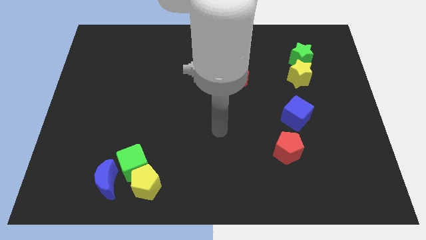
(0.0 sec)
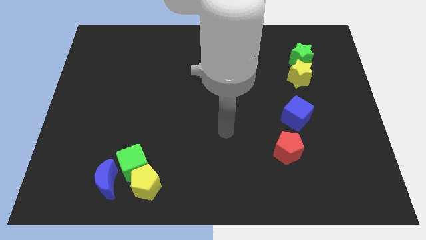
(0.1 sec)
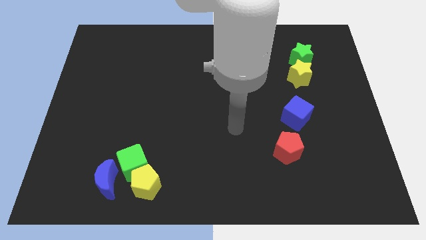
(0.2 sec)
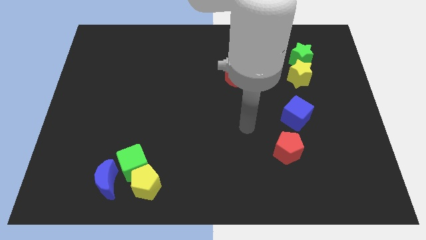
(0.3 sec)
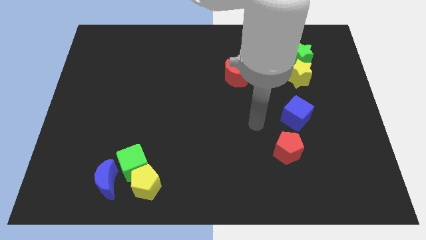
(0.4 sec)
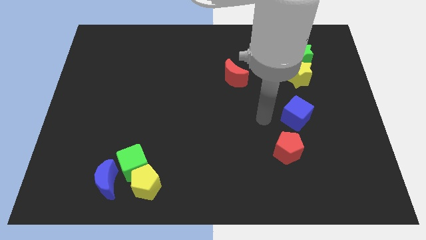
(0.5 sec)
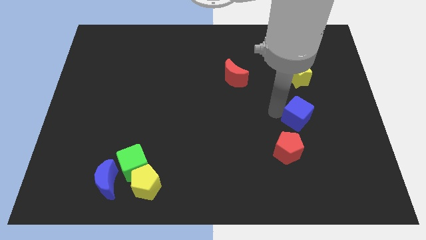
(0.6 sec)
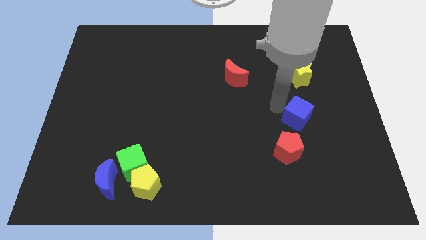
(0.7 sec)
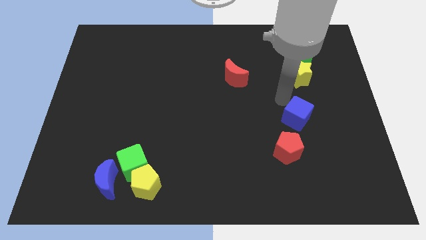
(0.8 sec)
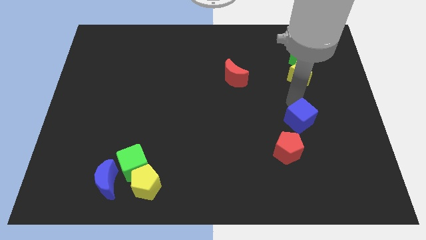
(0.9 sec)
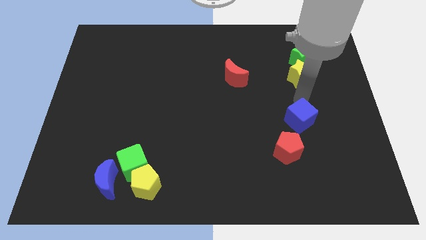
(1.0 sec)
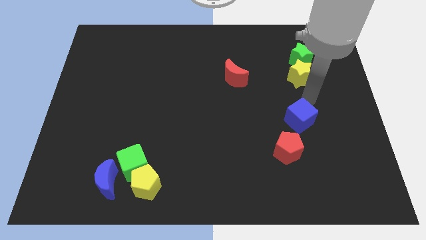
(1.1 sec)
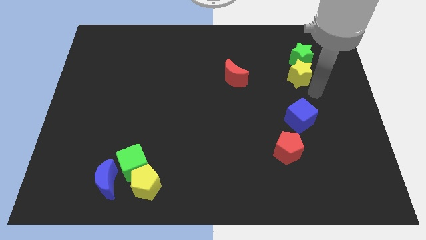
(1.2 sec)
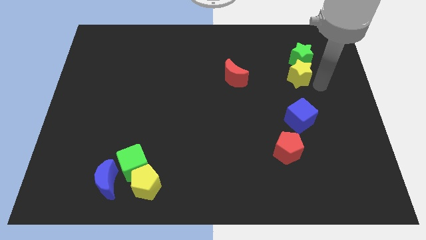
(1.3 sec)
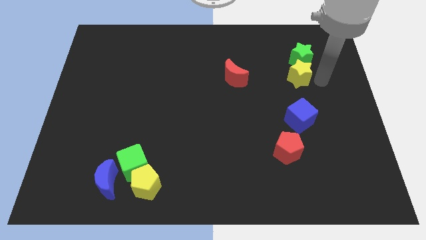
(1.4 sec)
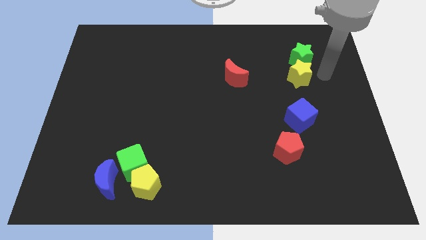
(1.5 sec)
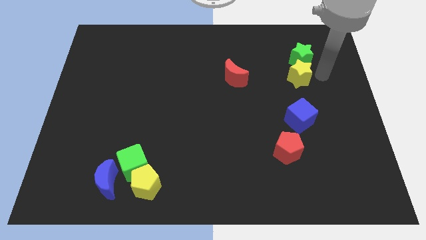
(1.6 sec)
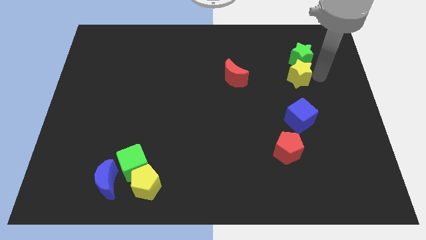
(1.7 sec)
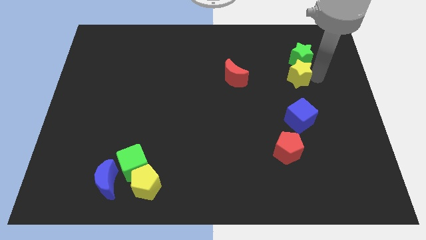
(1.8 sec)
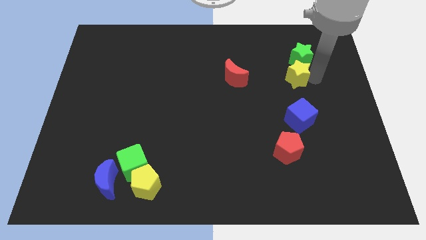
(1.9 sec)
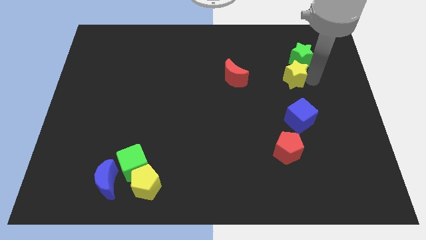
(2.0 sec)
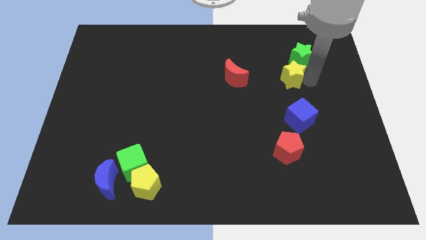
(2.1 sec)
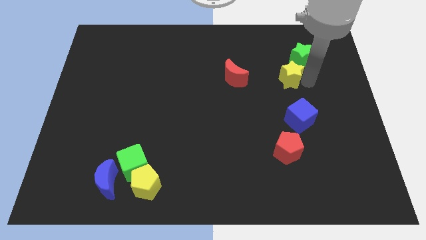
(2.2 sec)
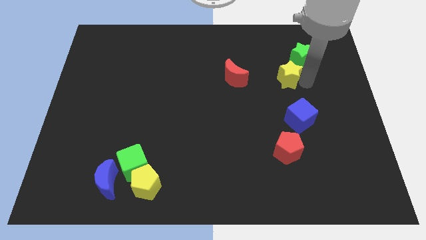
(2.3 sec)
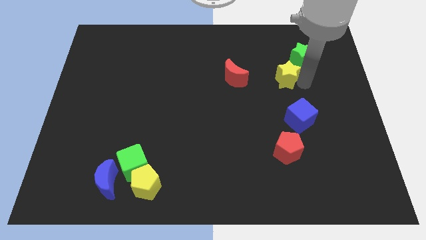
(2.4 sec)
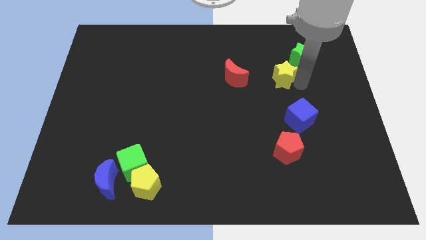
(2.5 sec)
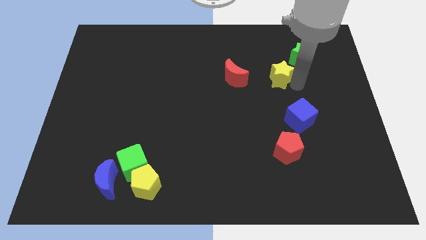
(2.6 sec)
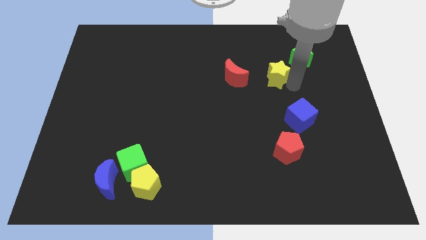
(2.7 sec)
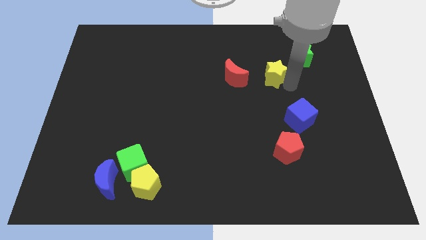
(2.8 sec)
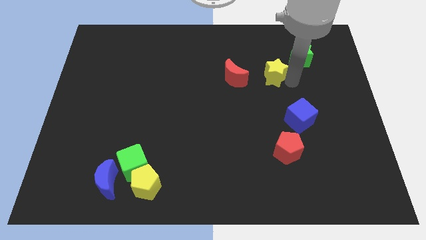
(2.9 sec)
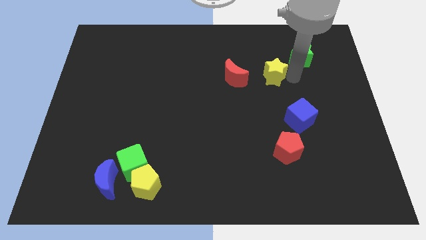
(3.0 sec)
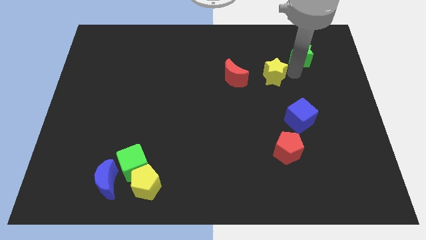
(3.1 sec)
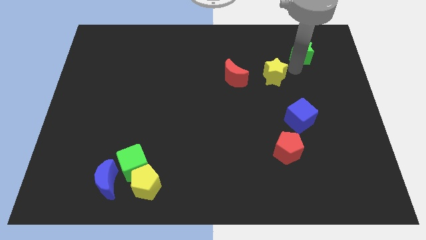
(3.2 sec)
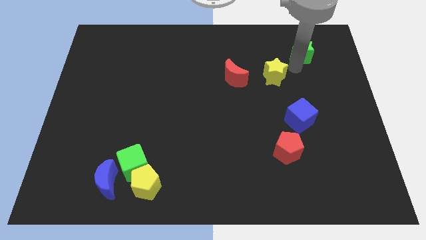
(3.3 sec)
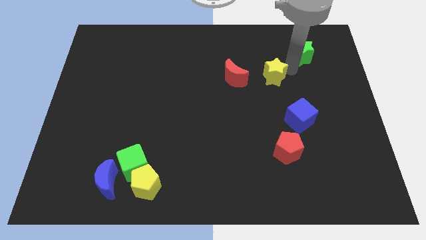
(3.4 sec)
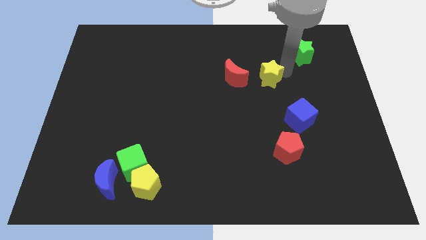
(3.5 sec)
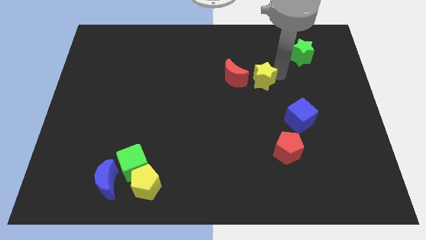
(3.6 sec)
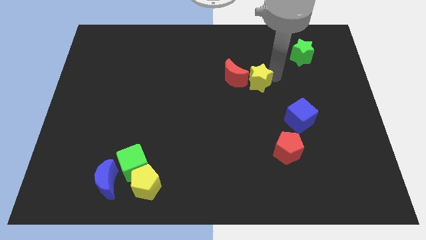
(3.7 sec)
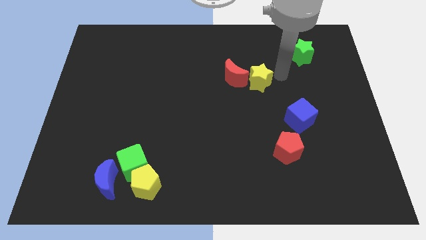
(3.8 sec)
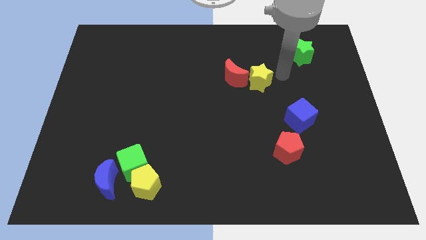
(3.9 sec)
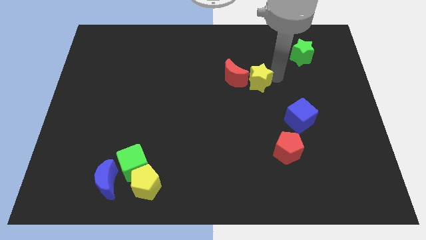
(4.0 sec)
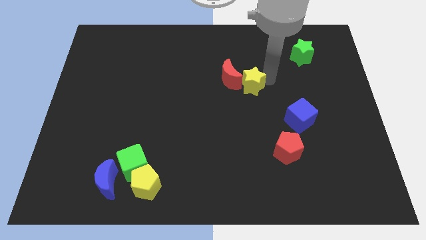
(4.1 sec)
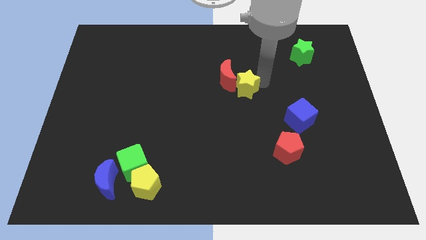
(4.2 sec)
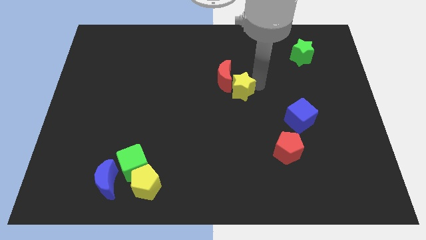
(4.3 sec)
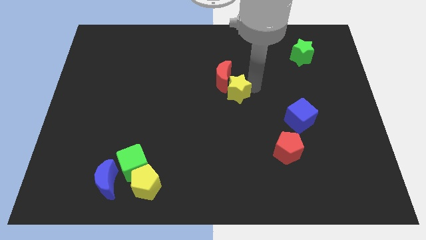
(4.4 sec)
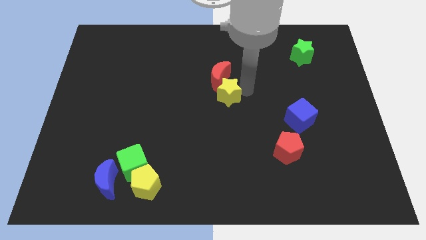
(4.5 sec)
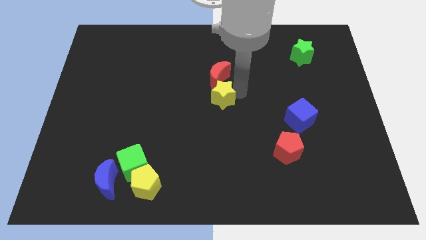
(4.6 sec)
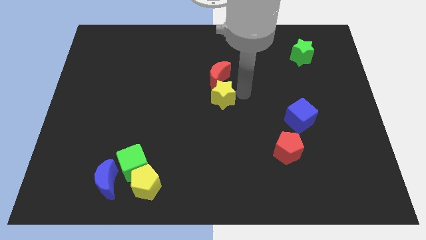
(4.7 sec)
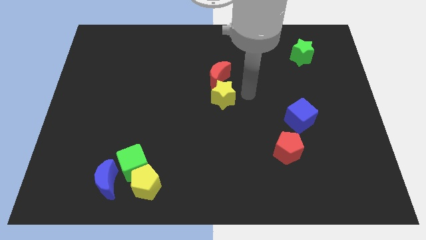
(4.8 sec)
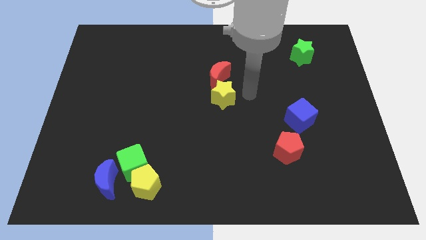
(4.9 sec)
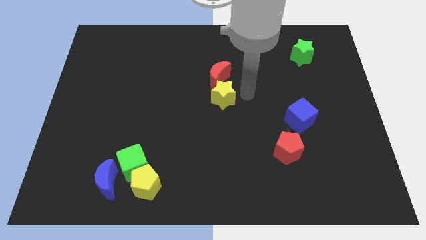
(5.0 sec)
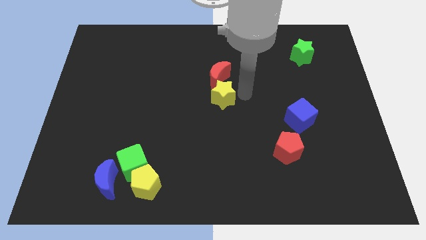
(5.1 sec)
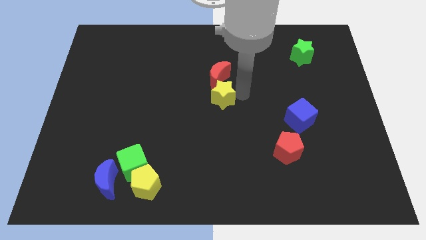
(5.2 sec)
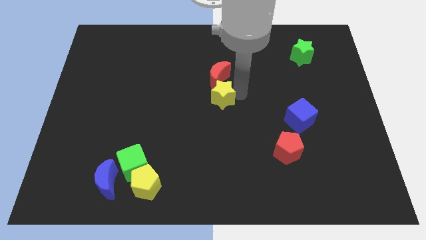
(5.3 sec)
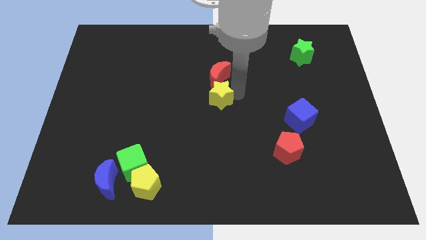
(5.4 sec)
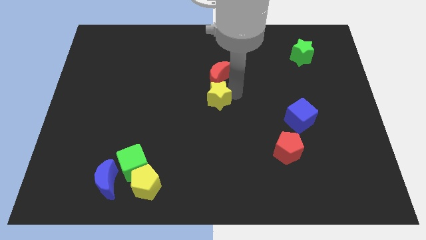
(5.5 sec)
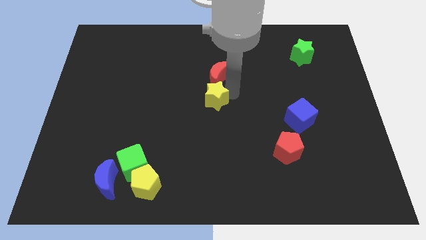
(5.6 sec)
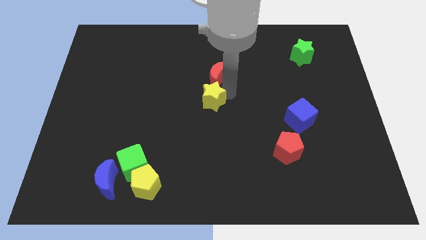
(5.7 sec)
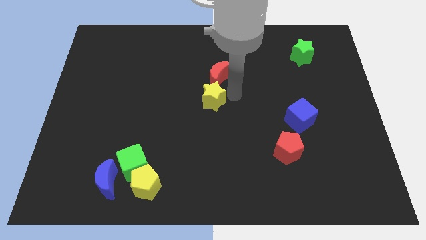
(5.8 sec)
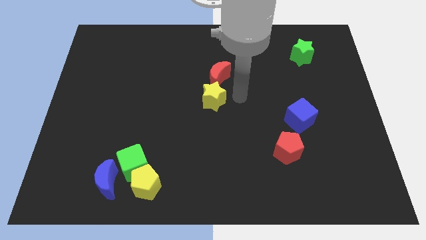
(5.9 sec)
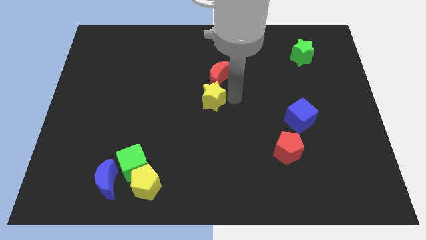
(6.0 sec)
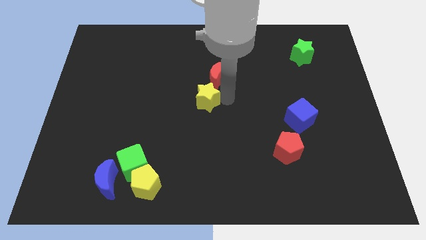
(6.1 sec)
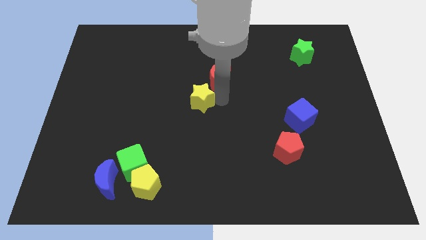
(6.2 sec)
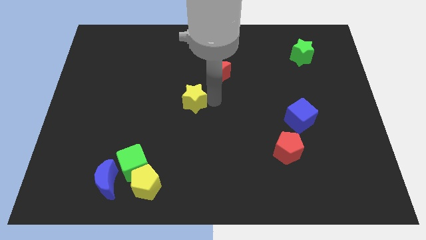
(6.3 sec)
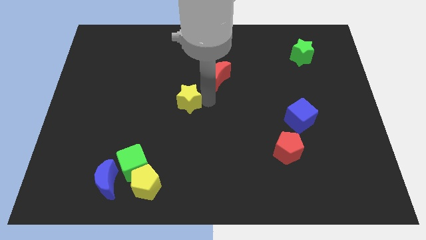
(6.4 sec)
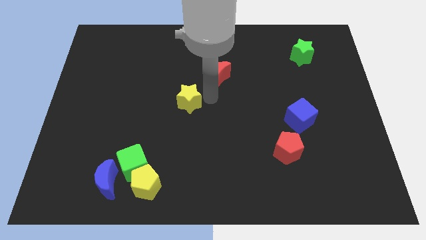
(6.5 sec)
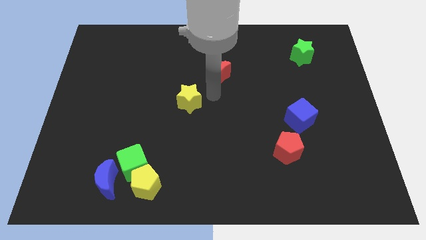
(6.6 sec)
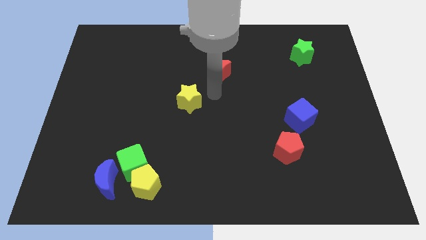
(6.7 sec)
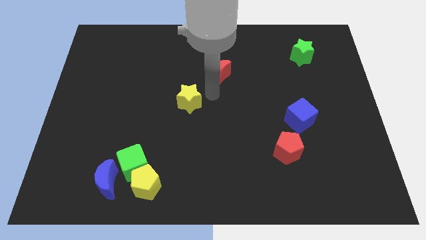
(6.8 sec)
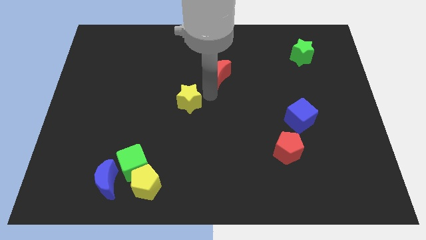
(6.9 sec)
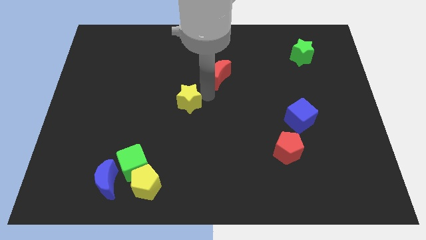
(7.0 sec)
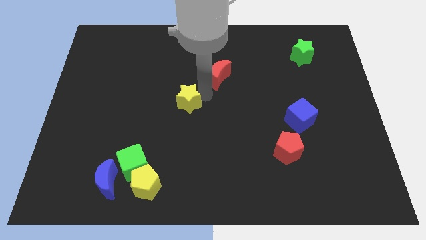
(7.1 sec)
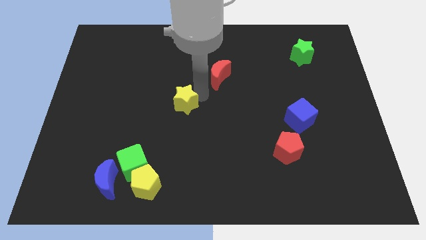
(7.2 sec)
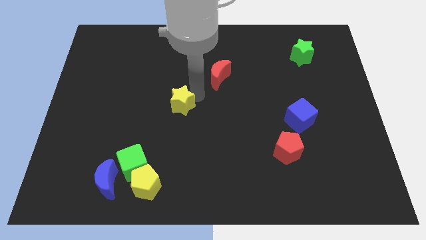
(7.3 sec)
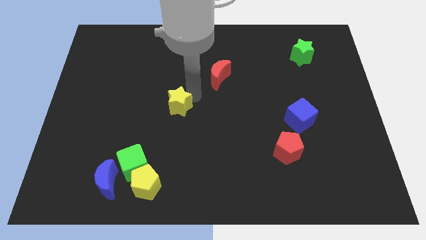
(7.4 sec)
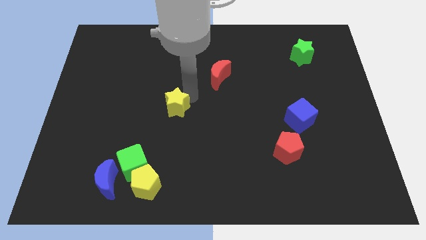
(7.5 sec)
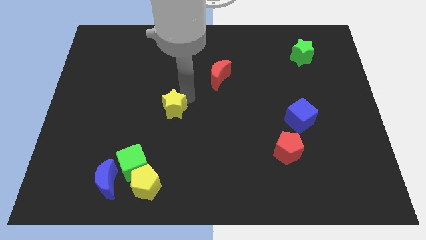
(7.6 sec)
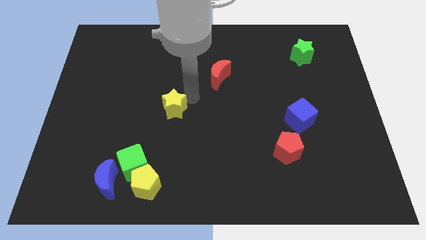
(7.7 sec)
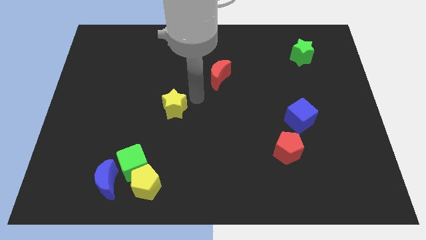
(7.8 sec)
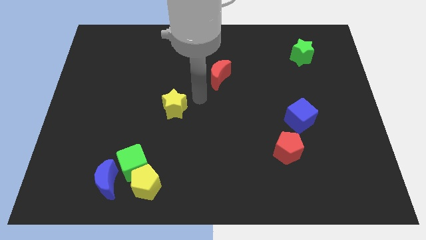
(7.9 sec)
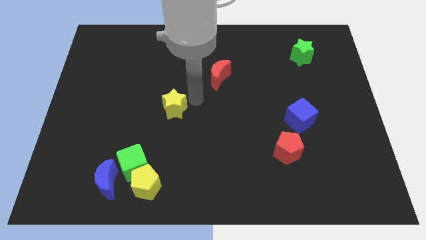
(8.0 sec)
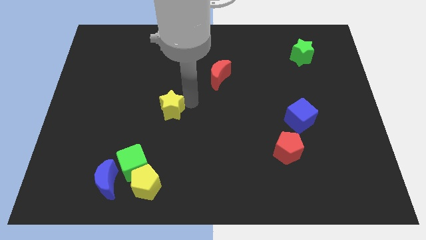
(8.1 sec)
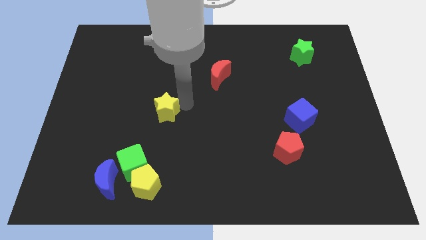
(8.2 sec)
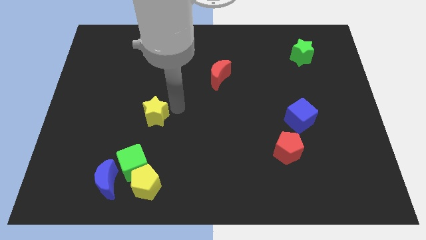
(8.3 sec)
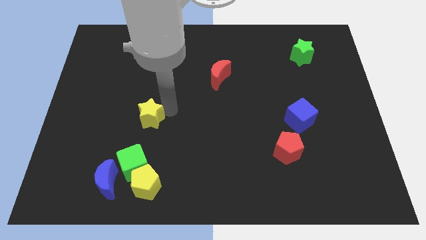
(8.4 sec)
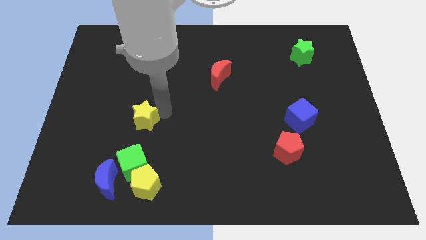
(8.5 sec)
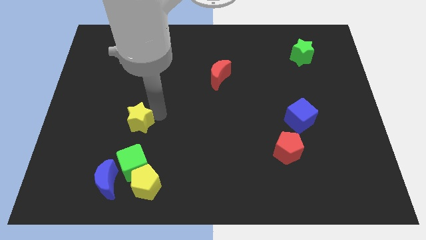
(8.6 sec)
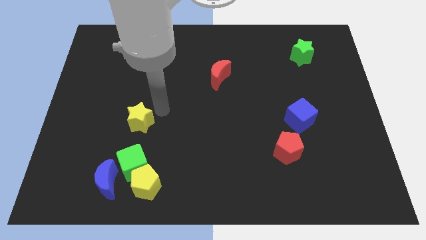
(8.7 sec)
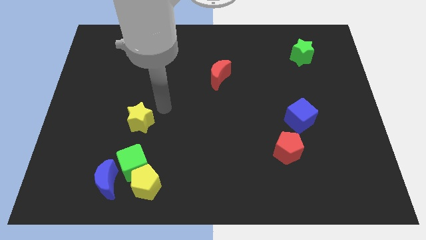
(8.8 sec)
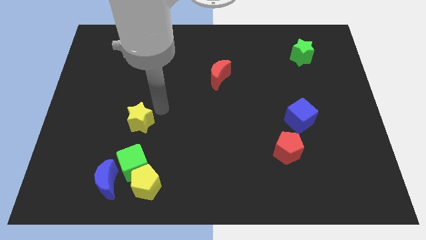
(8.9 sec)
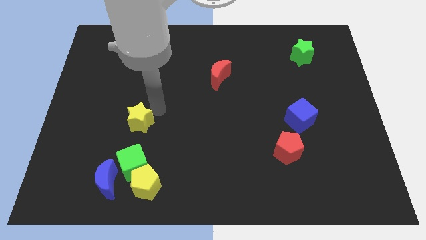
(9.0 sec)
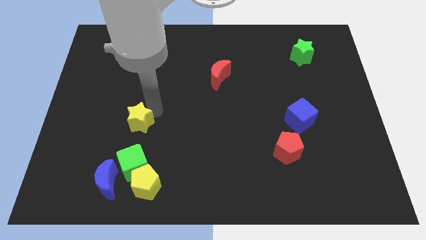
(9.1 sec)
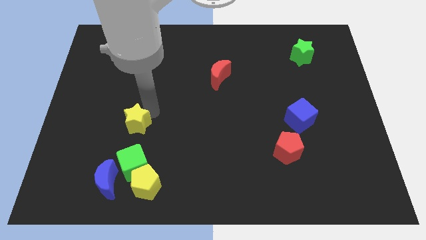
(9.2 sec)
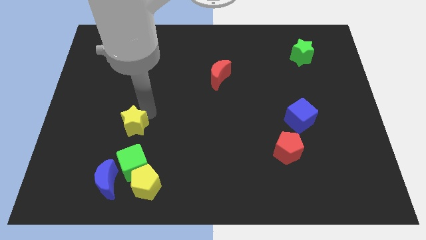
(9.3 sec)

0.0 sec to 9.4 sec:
push the yellow star to the top side of the blue moon
